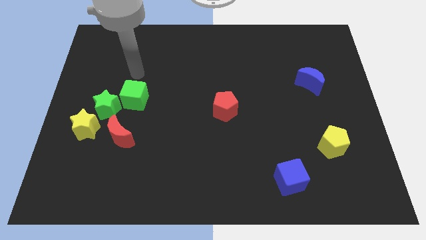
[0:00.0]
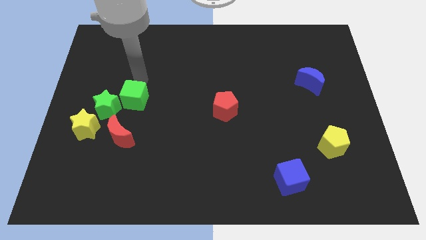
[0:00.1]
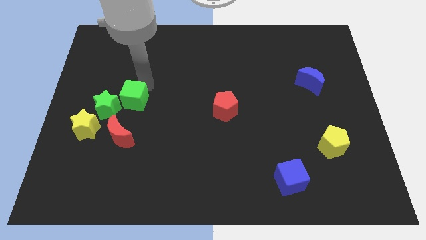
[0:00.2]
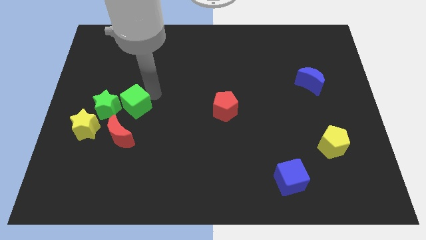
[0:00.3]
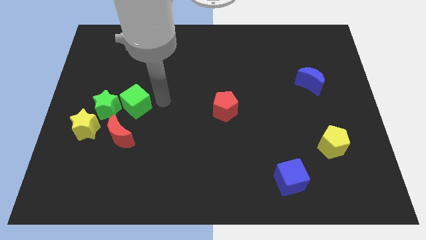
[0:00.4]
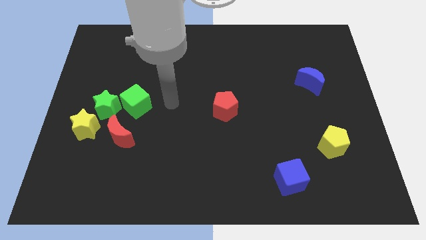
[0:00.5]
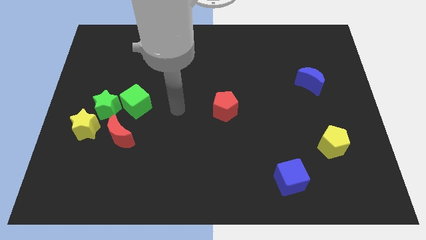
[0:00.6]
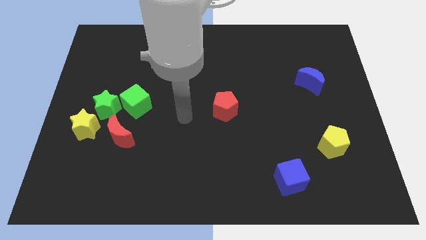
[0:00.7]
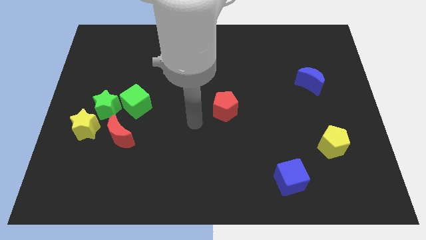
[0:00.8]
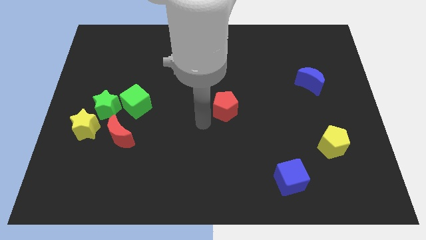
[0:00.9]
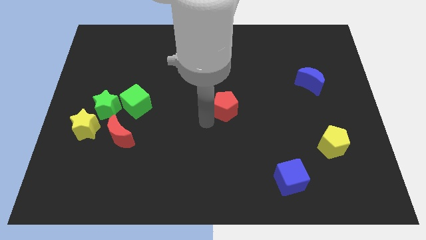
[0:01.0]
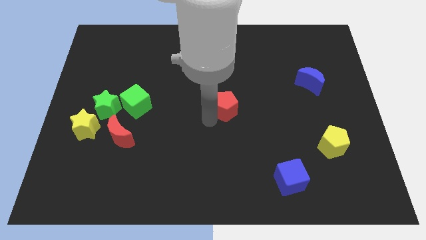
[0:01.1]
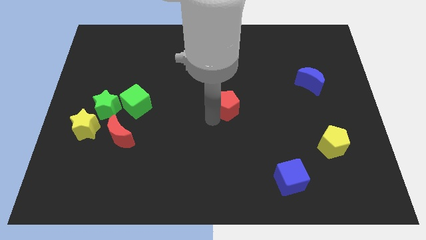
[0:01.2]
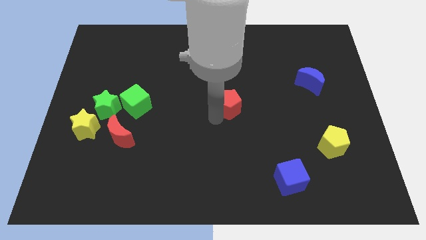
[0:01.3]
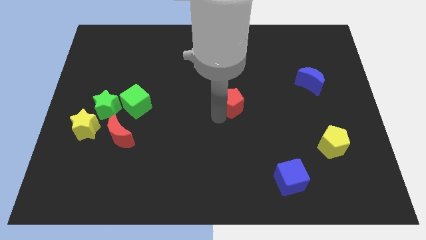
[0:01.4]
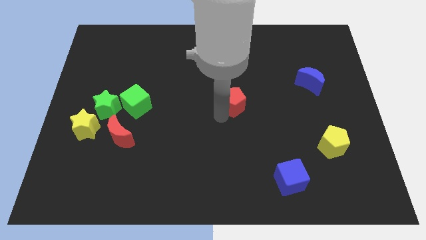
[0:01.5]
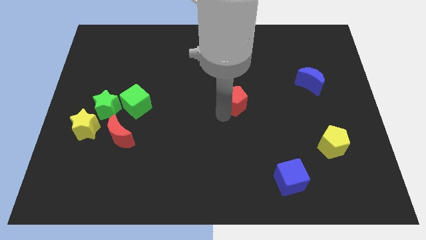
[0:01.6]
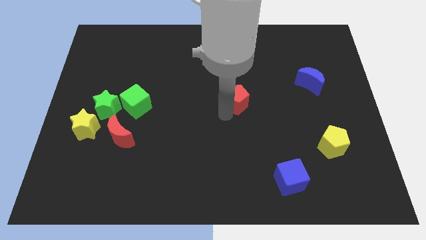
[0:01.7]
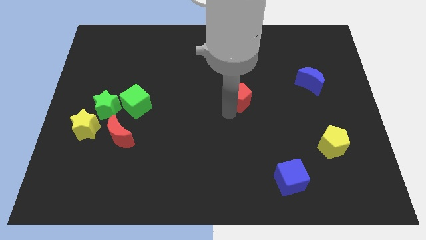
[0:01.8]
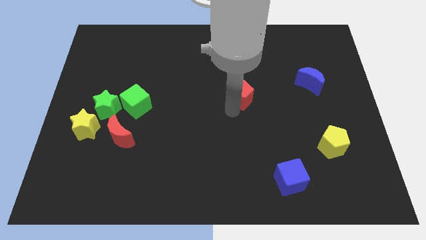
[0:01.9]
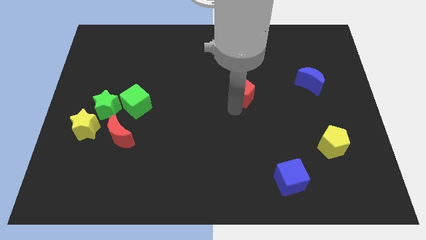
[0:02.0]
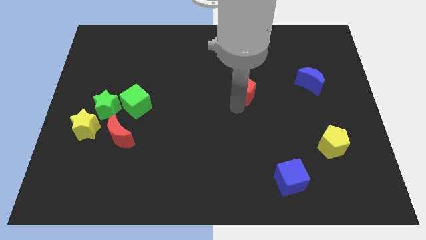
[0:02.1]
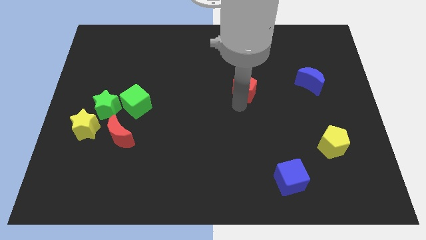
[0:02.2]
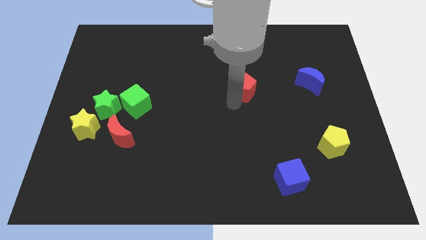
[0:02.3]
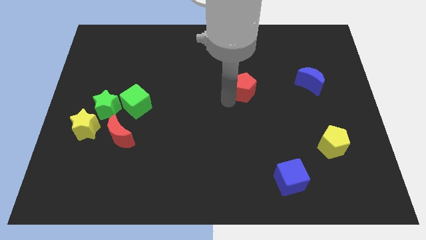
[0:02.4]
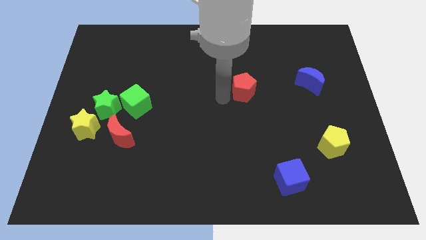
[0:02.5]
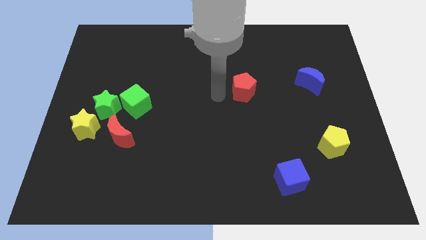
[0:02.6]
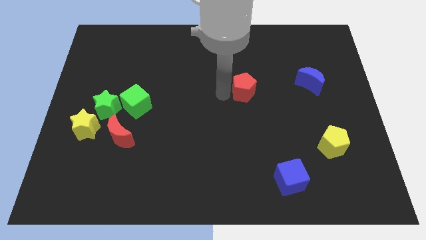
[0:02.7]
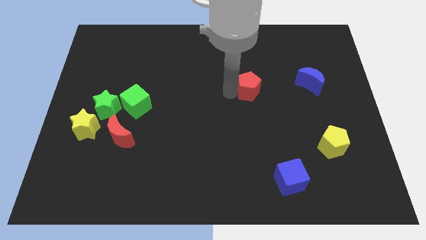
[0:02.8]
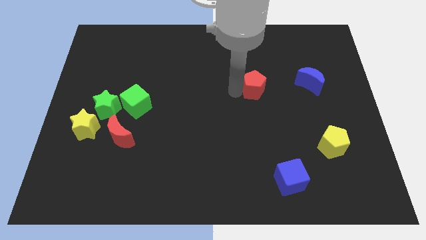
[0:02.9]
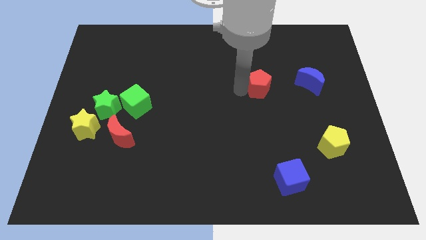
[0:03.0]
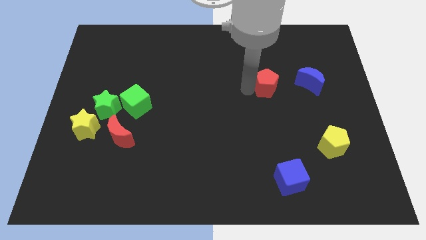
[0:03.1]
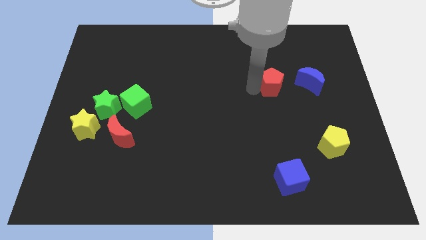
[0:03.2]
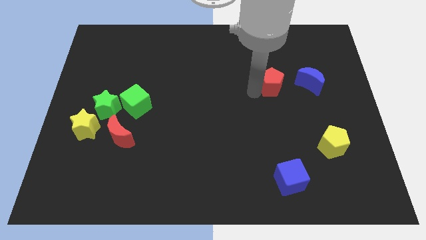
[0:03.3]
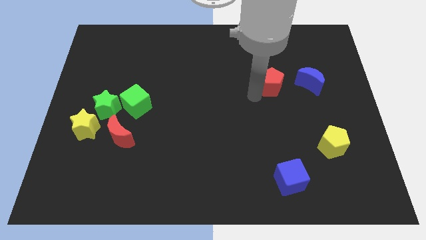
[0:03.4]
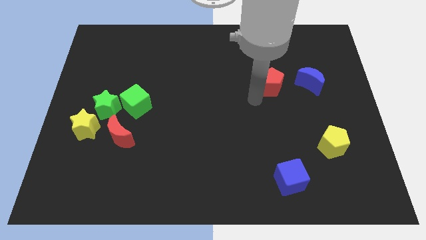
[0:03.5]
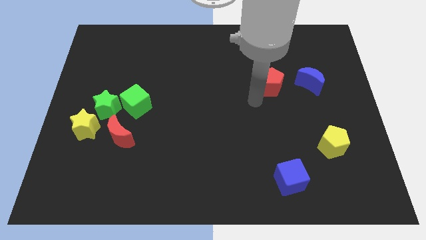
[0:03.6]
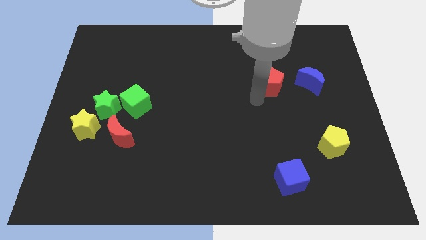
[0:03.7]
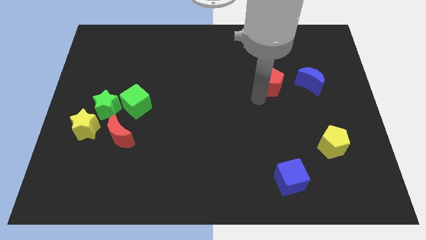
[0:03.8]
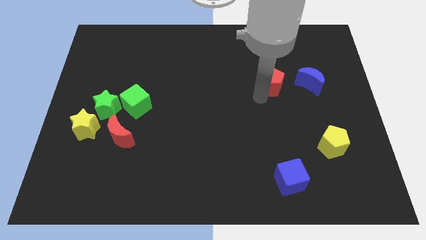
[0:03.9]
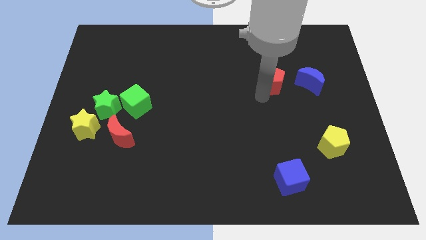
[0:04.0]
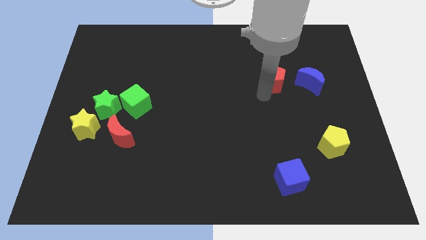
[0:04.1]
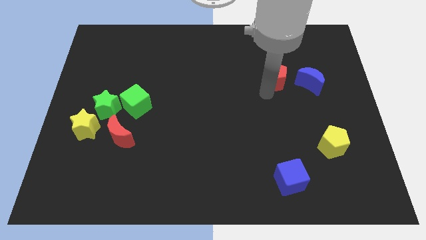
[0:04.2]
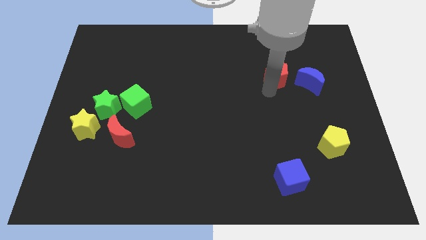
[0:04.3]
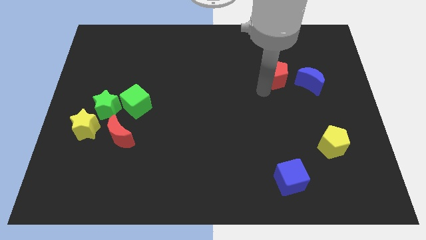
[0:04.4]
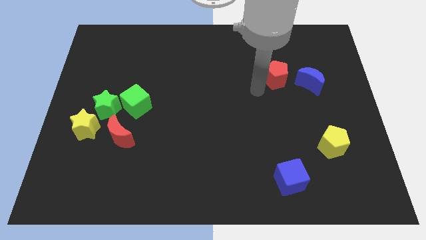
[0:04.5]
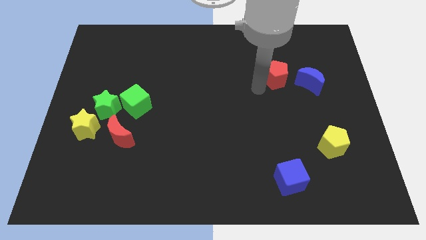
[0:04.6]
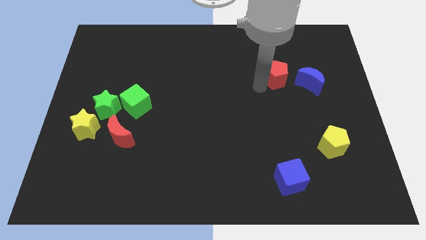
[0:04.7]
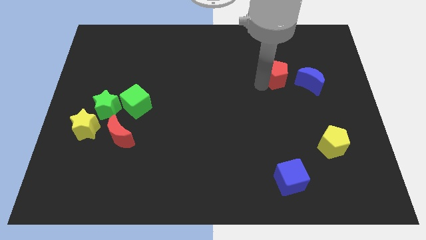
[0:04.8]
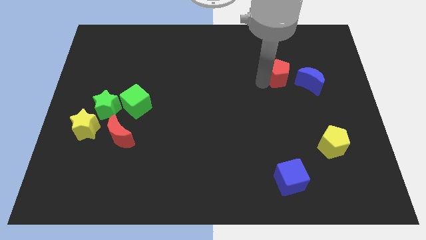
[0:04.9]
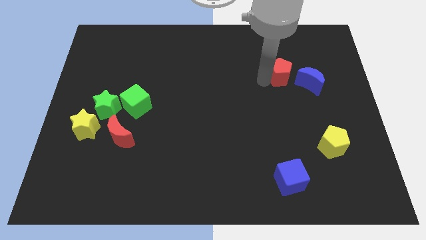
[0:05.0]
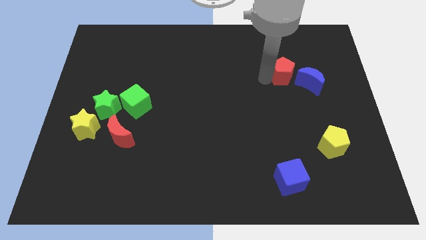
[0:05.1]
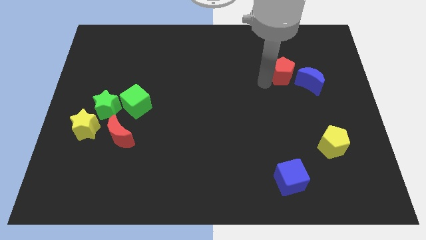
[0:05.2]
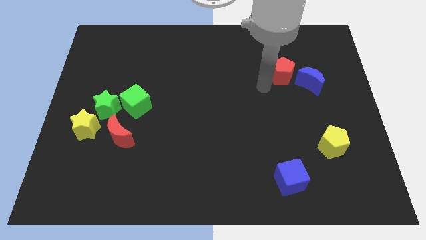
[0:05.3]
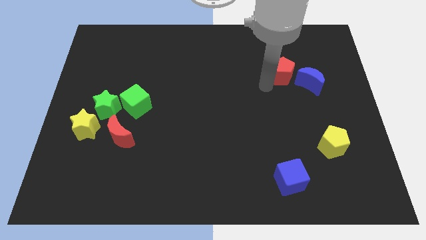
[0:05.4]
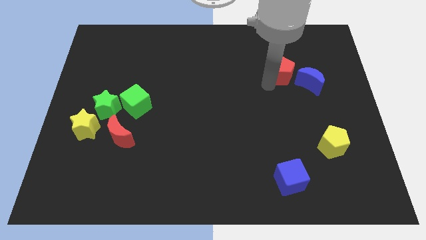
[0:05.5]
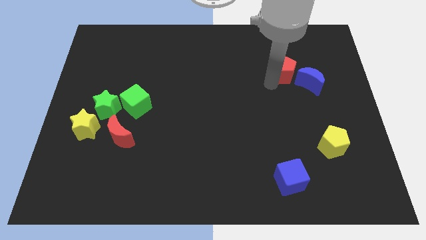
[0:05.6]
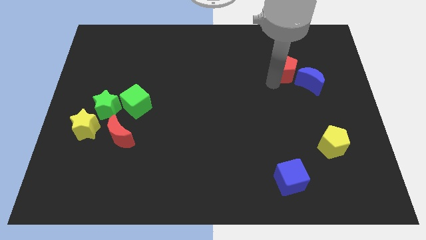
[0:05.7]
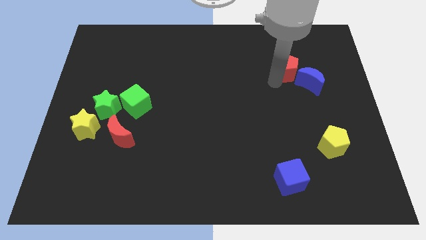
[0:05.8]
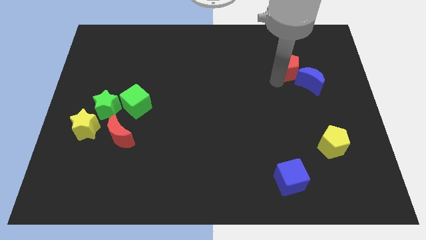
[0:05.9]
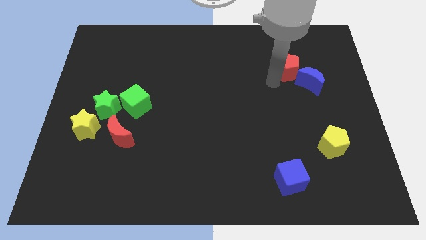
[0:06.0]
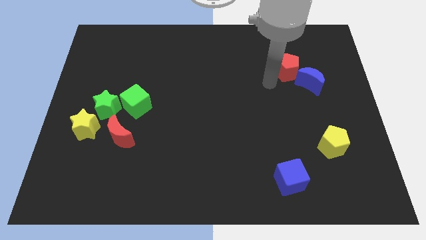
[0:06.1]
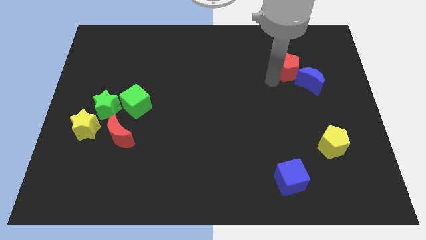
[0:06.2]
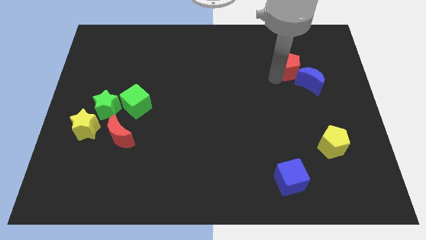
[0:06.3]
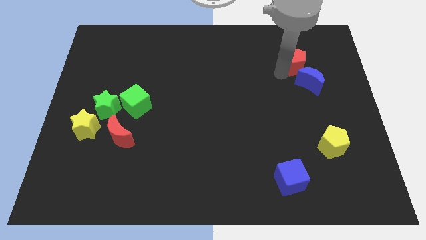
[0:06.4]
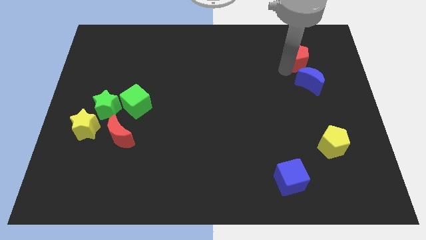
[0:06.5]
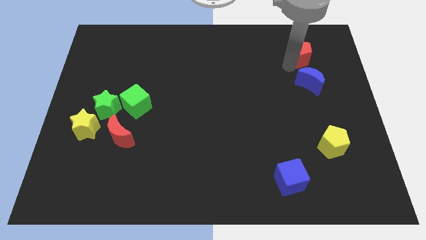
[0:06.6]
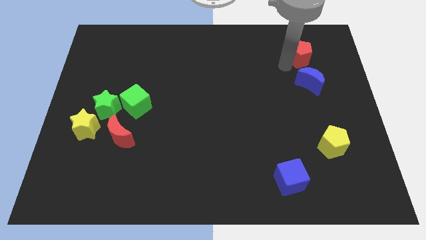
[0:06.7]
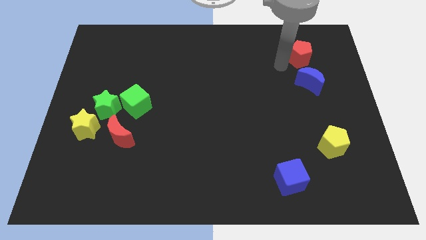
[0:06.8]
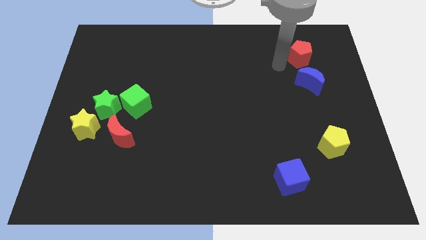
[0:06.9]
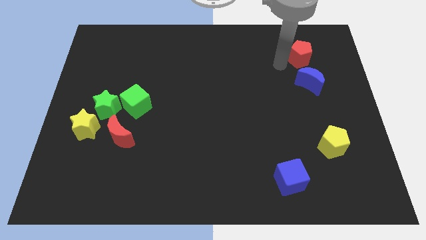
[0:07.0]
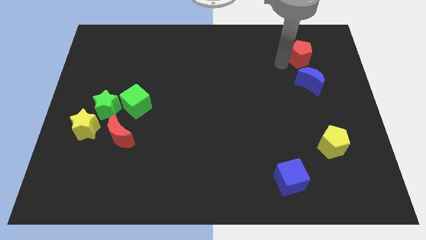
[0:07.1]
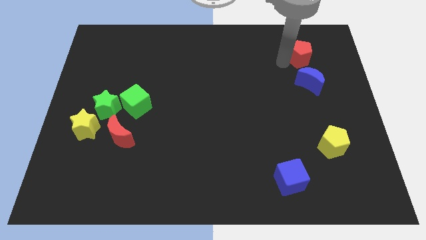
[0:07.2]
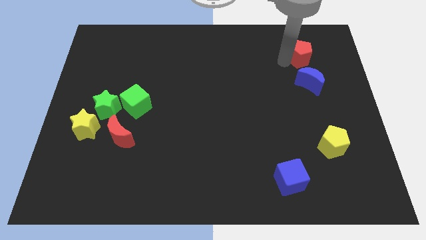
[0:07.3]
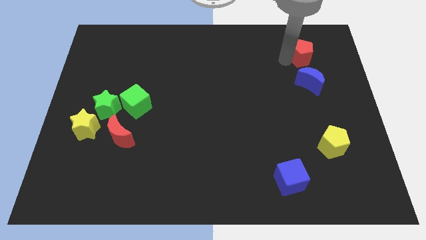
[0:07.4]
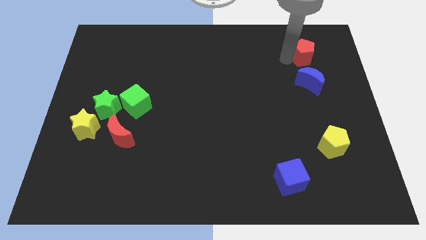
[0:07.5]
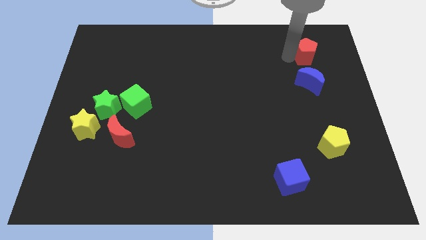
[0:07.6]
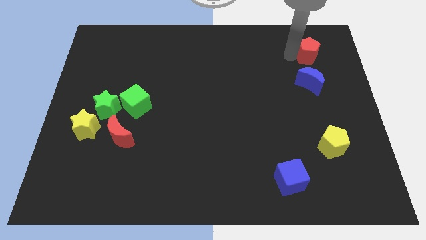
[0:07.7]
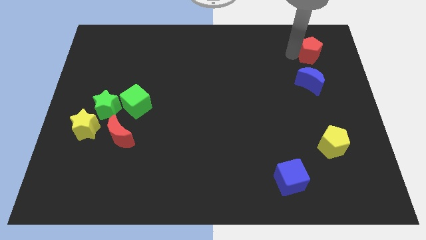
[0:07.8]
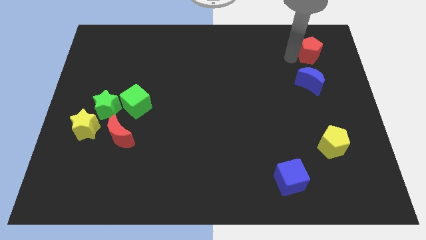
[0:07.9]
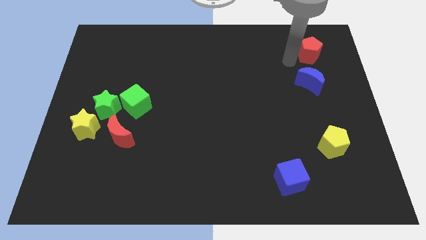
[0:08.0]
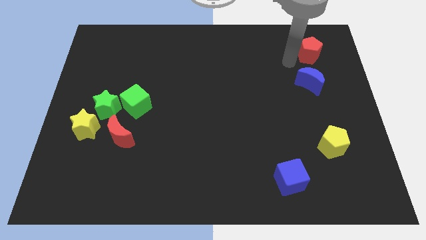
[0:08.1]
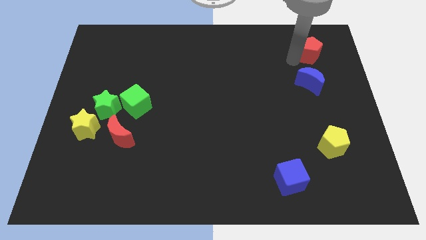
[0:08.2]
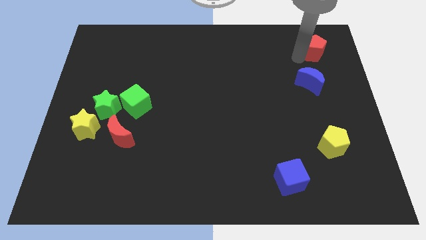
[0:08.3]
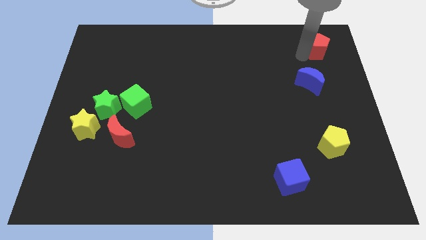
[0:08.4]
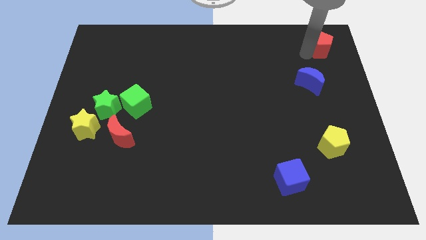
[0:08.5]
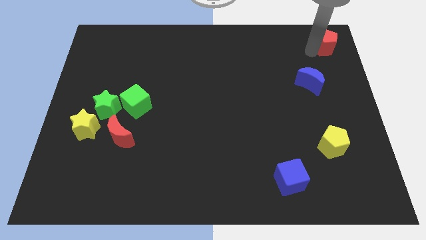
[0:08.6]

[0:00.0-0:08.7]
slide the red pentagon to the top right corner
